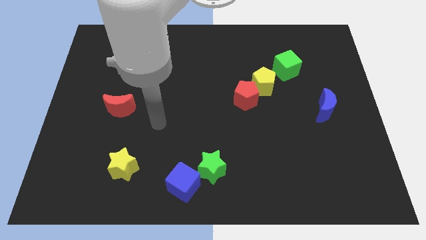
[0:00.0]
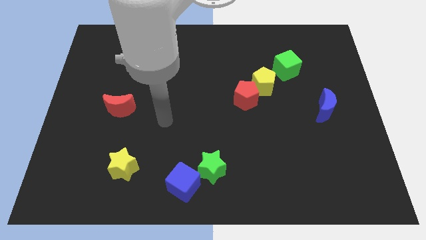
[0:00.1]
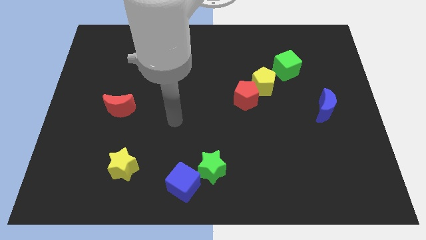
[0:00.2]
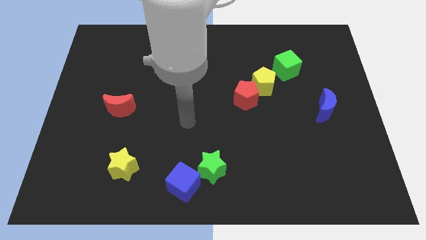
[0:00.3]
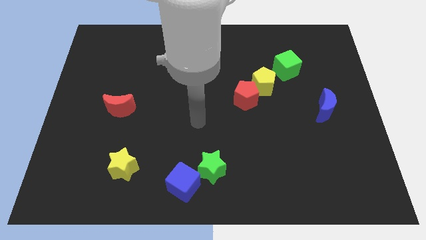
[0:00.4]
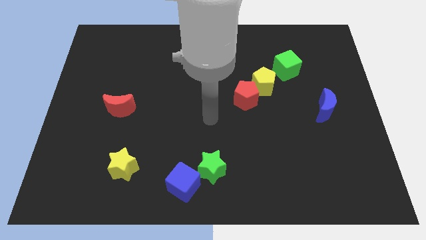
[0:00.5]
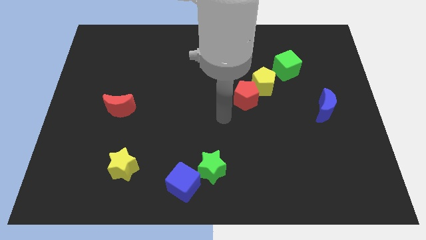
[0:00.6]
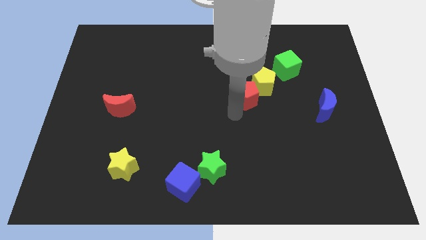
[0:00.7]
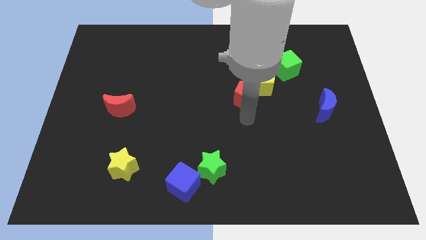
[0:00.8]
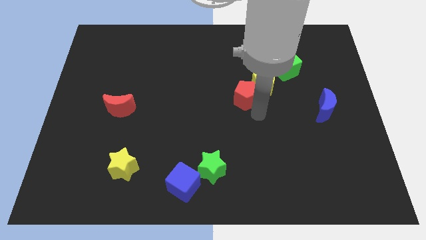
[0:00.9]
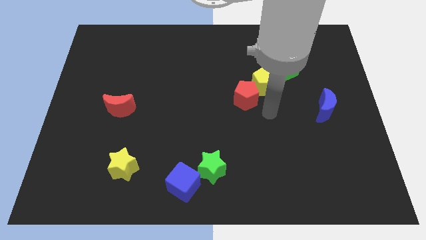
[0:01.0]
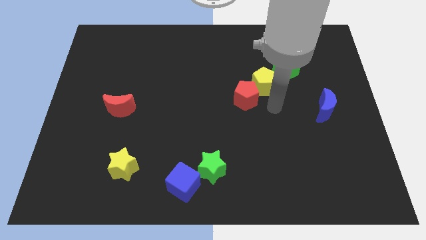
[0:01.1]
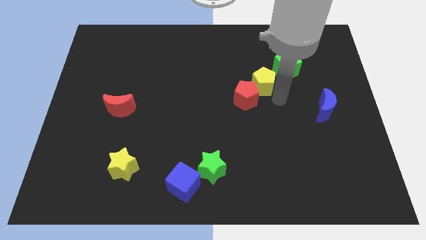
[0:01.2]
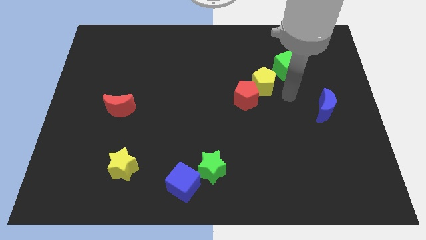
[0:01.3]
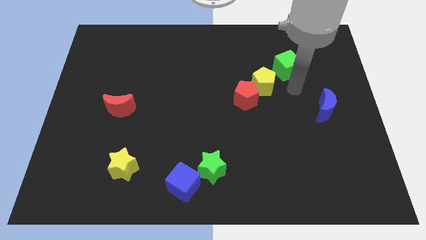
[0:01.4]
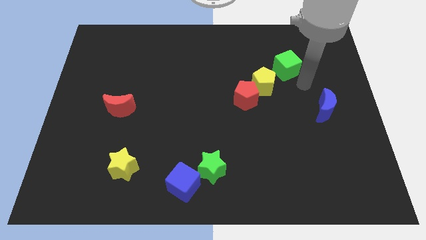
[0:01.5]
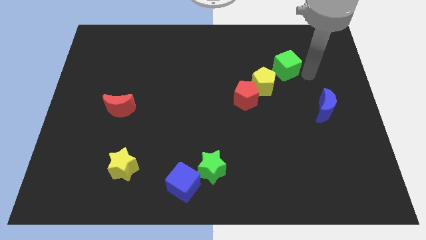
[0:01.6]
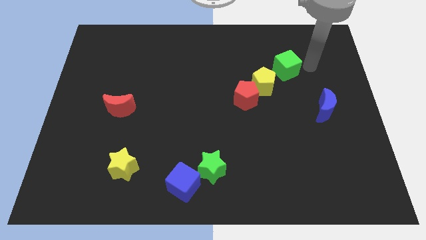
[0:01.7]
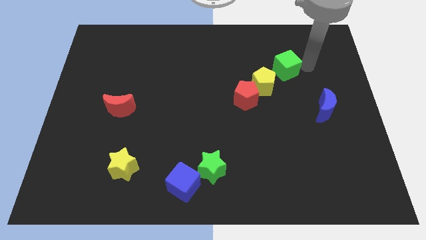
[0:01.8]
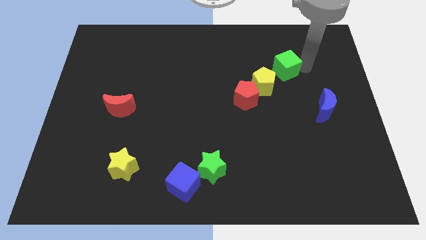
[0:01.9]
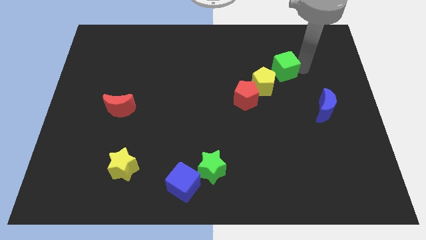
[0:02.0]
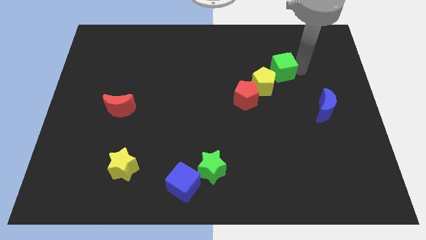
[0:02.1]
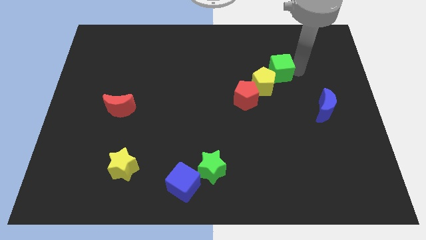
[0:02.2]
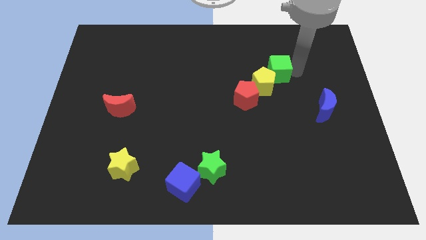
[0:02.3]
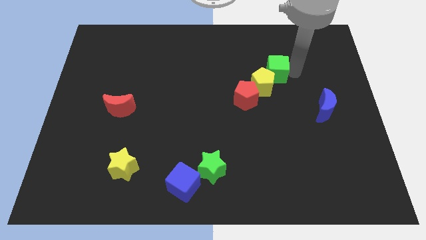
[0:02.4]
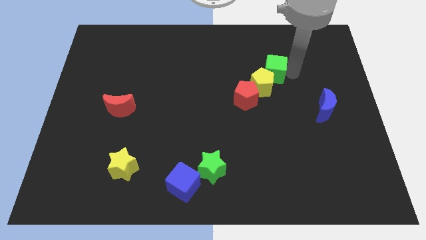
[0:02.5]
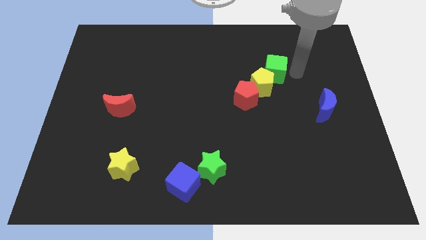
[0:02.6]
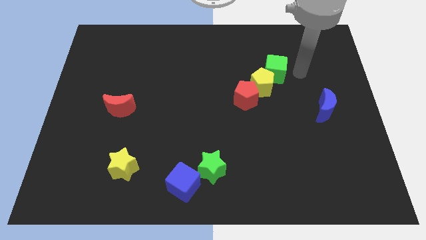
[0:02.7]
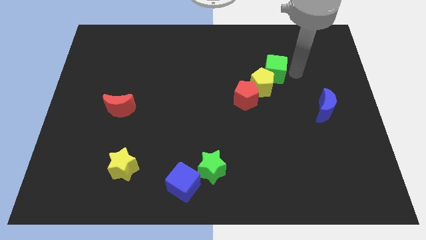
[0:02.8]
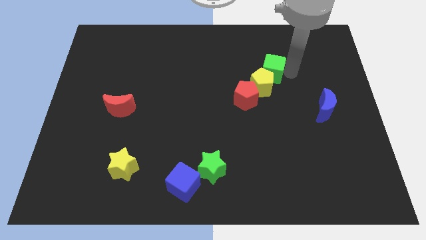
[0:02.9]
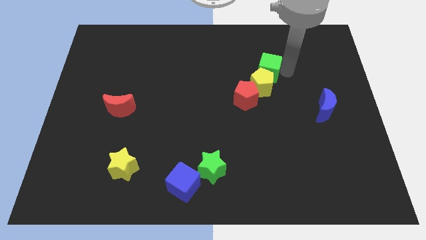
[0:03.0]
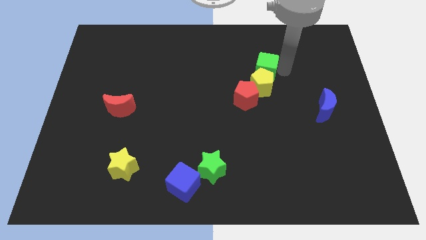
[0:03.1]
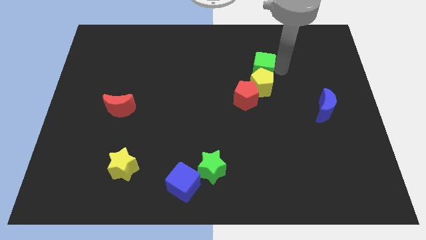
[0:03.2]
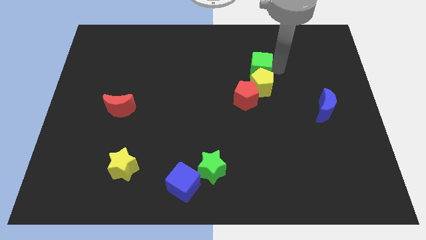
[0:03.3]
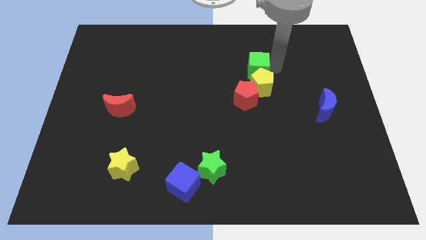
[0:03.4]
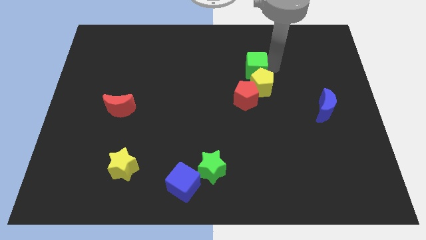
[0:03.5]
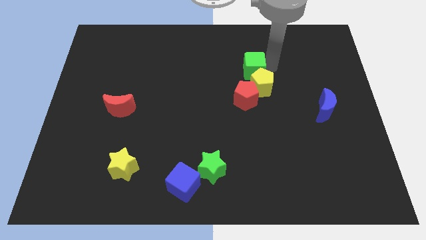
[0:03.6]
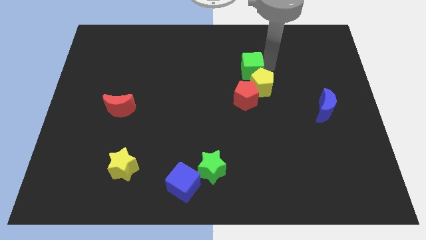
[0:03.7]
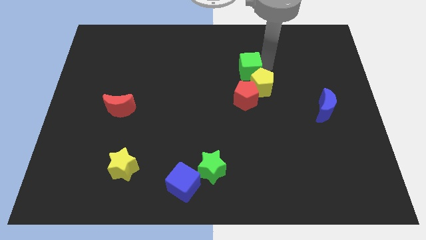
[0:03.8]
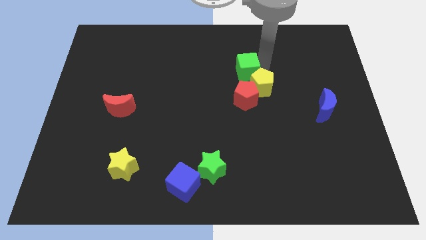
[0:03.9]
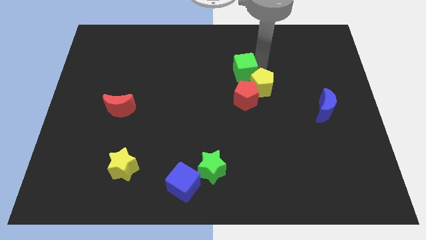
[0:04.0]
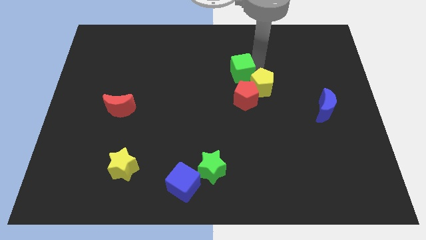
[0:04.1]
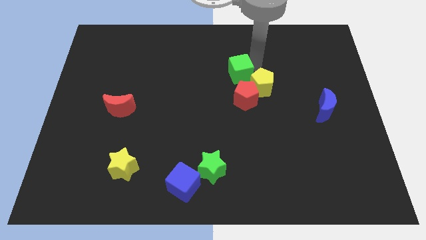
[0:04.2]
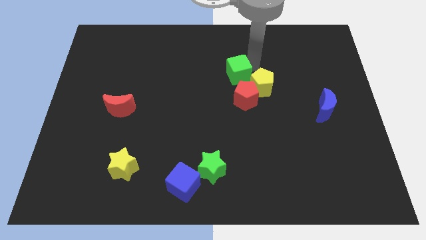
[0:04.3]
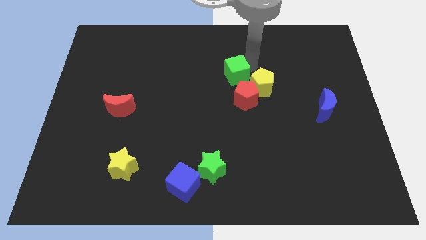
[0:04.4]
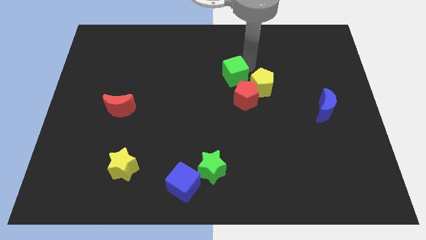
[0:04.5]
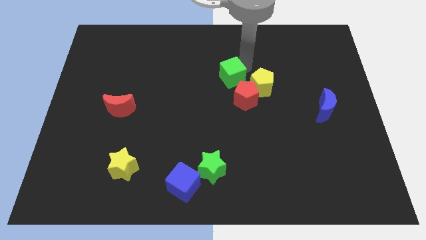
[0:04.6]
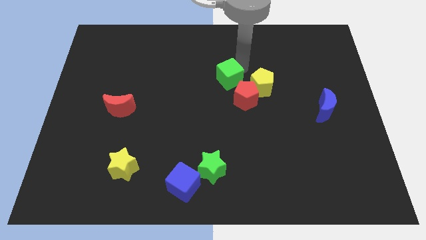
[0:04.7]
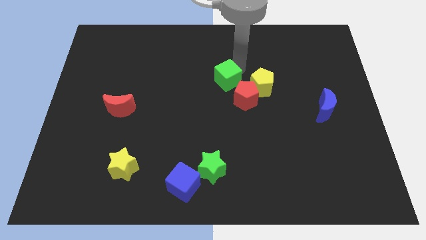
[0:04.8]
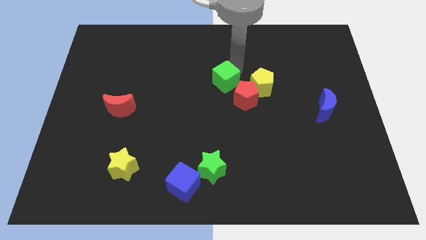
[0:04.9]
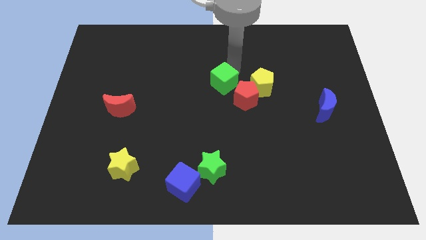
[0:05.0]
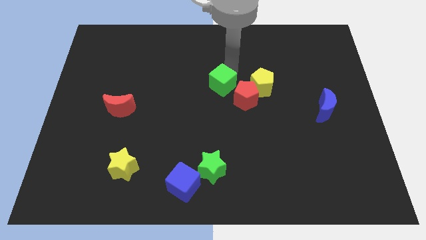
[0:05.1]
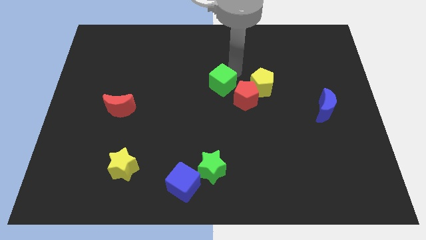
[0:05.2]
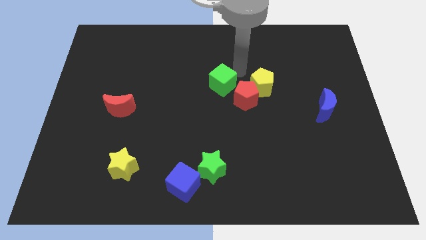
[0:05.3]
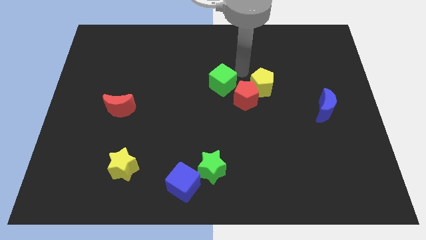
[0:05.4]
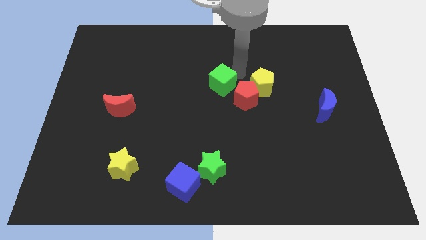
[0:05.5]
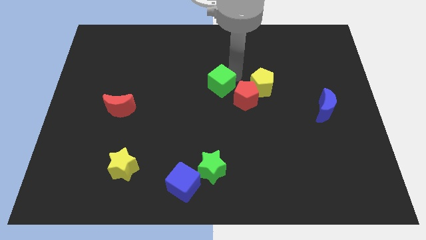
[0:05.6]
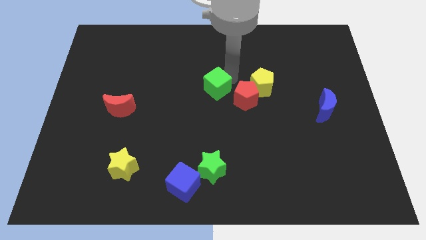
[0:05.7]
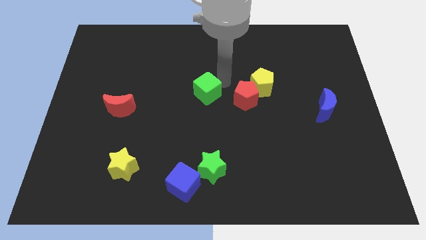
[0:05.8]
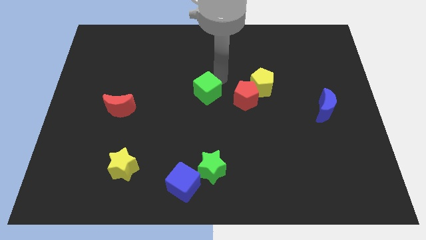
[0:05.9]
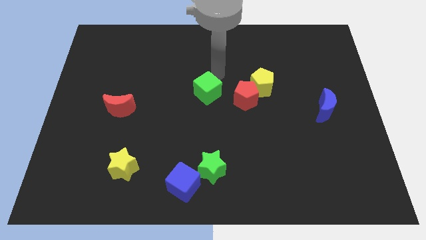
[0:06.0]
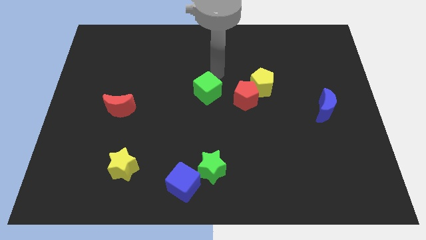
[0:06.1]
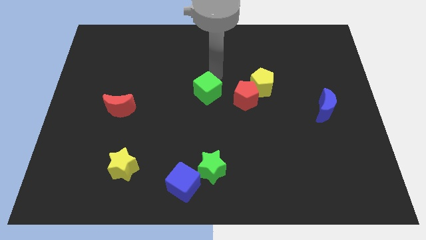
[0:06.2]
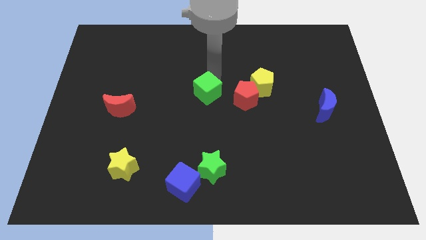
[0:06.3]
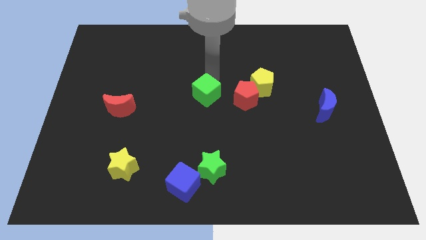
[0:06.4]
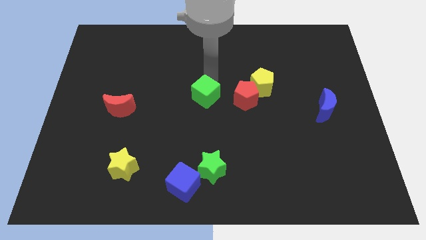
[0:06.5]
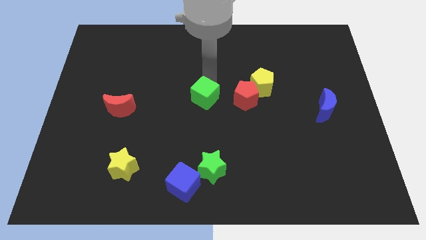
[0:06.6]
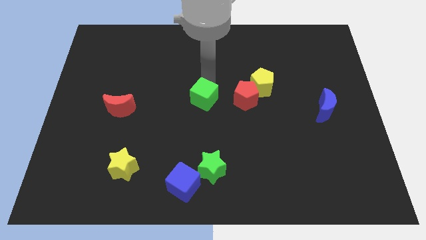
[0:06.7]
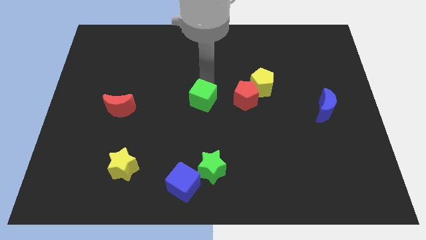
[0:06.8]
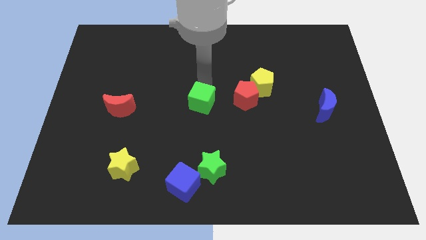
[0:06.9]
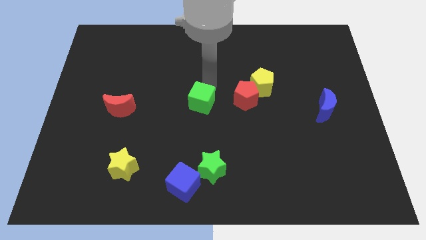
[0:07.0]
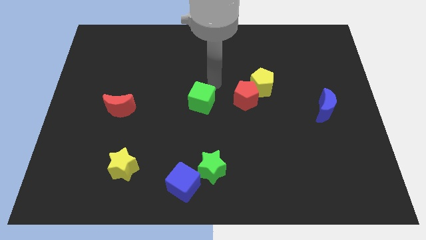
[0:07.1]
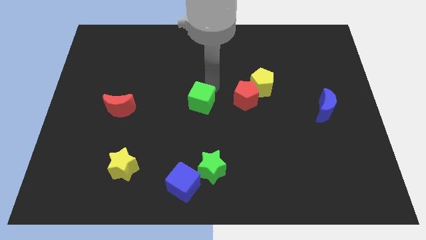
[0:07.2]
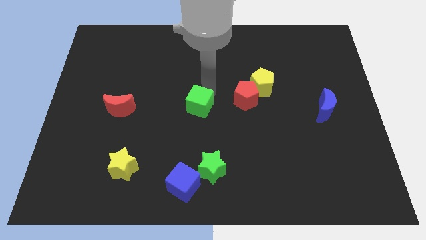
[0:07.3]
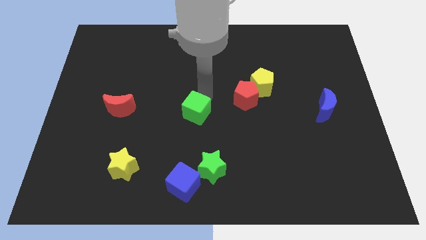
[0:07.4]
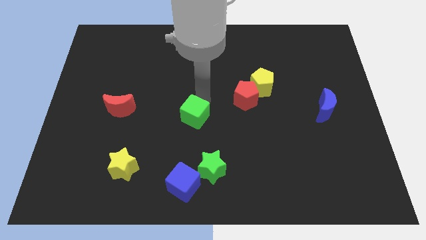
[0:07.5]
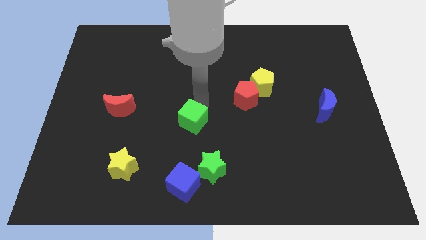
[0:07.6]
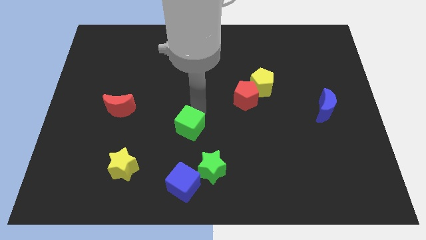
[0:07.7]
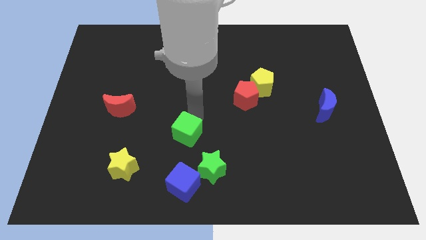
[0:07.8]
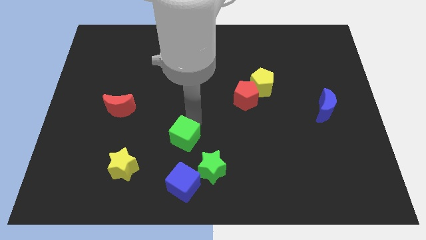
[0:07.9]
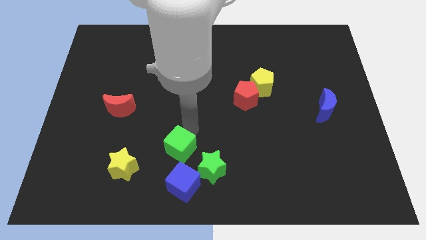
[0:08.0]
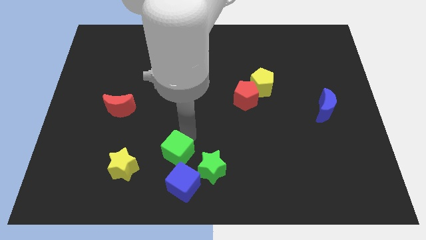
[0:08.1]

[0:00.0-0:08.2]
put the green cube to the top left side of the blue cube
